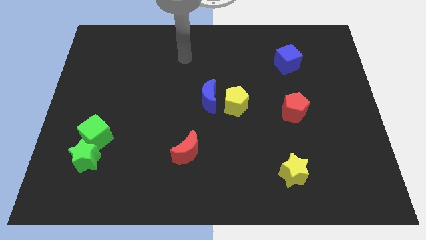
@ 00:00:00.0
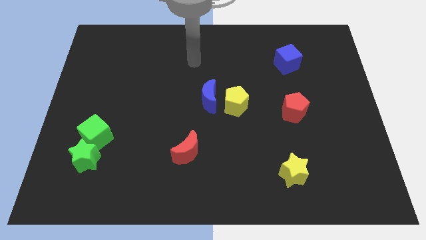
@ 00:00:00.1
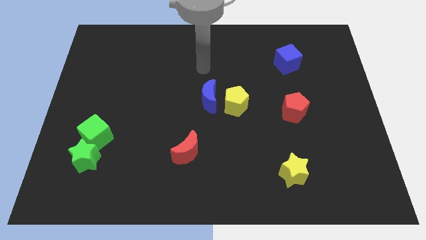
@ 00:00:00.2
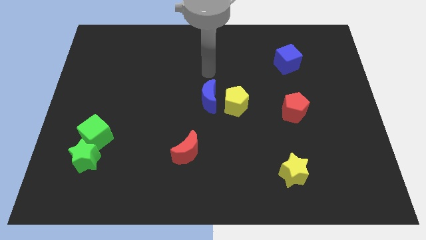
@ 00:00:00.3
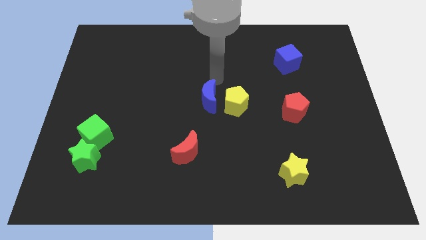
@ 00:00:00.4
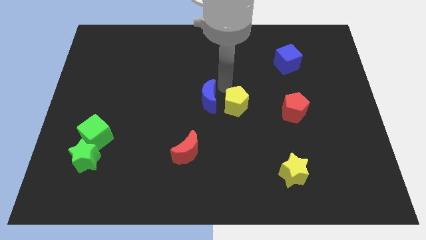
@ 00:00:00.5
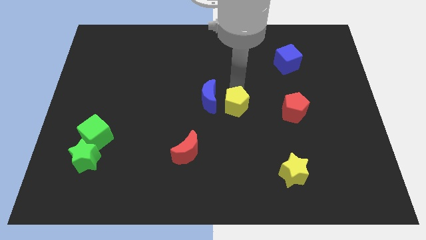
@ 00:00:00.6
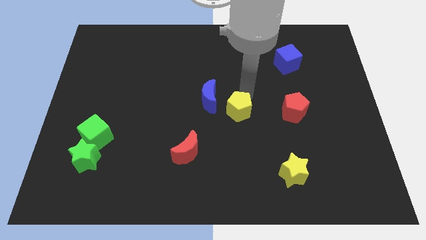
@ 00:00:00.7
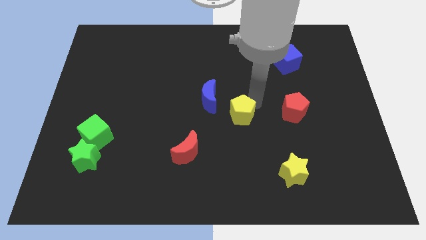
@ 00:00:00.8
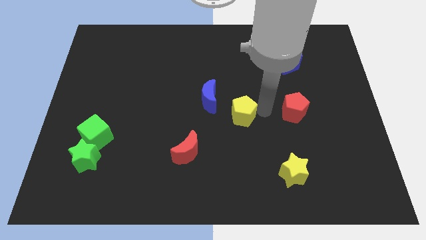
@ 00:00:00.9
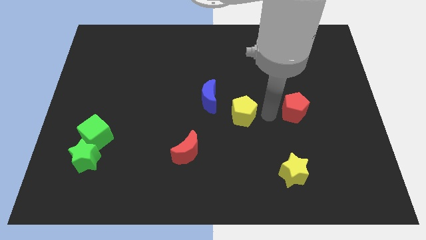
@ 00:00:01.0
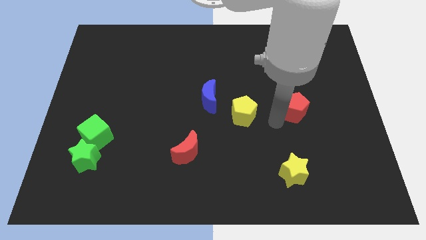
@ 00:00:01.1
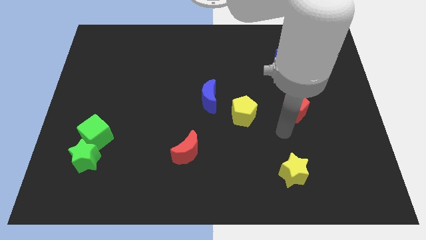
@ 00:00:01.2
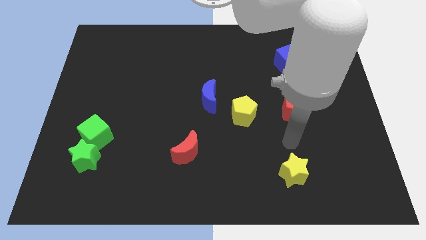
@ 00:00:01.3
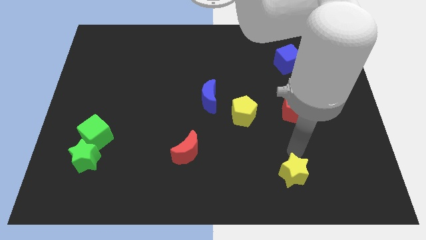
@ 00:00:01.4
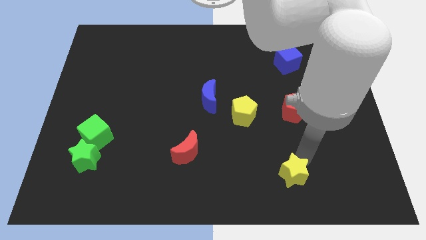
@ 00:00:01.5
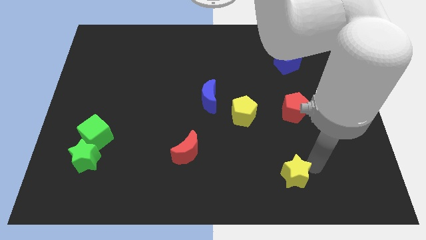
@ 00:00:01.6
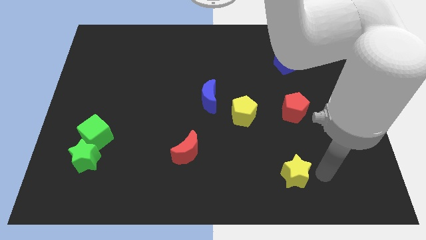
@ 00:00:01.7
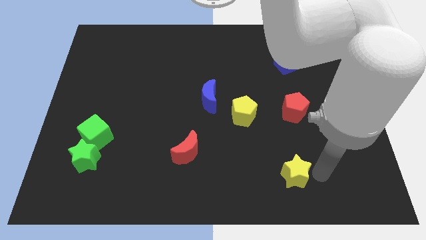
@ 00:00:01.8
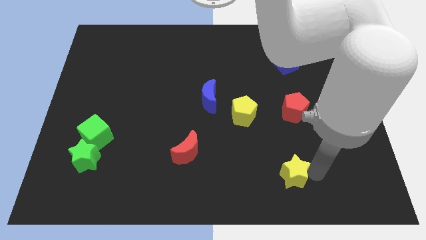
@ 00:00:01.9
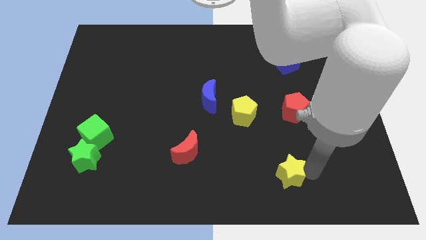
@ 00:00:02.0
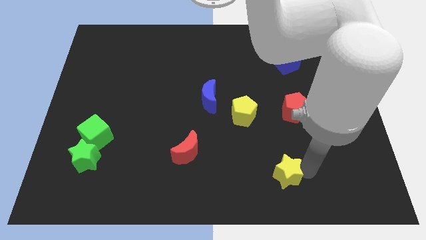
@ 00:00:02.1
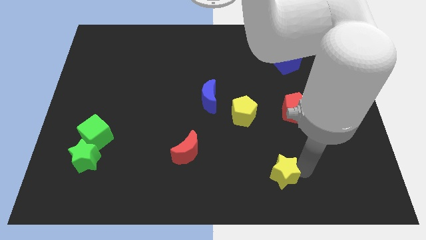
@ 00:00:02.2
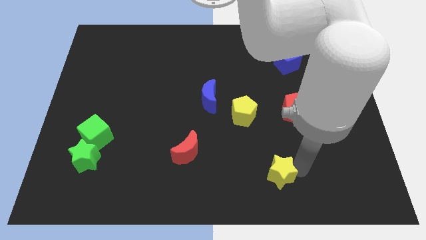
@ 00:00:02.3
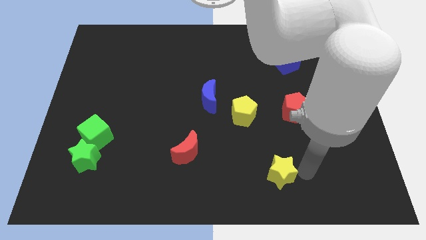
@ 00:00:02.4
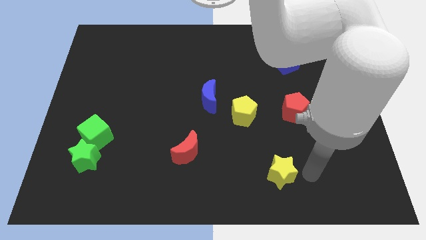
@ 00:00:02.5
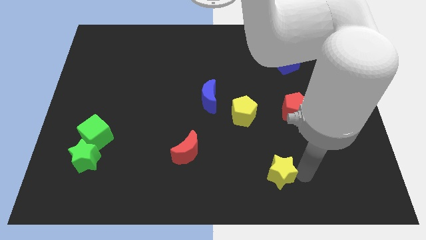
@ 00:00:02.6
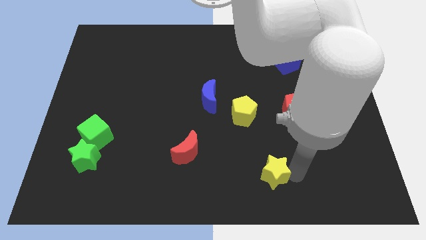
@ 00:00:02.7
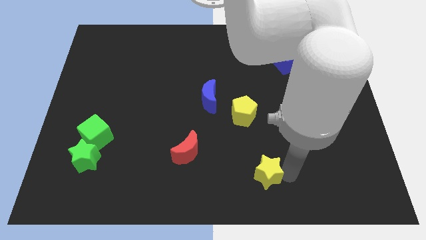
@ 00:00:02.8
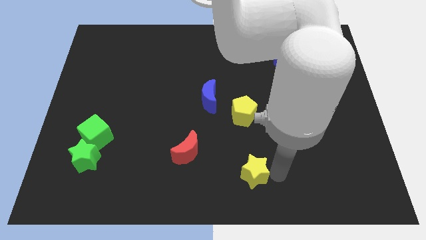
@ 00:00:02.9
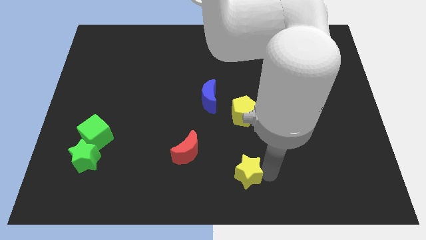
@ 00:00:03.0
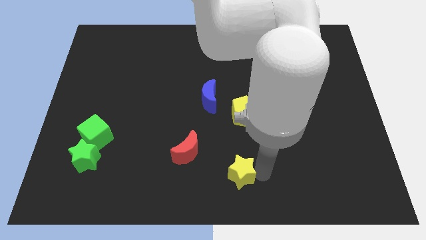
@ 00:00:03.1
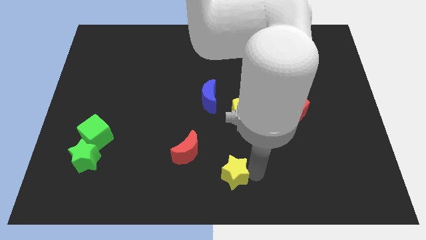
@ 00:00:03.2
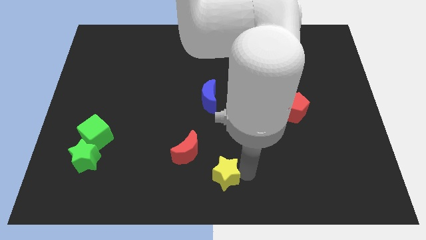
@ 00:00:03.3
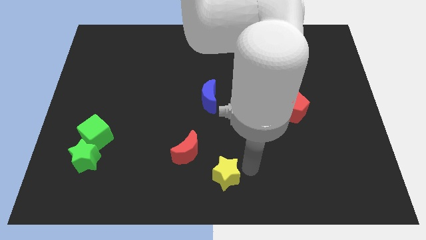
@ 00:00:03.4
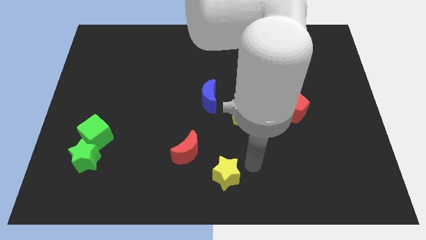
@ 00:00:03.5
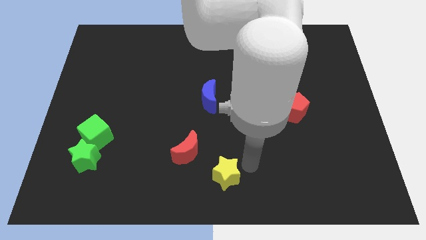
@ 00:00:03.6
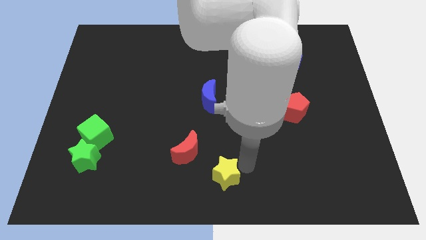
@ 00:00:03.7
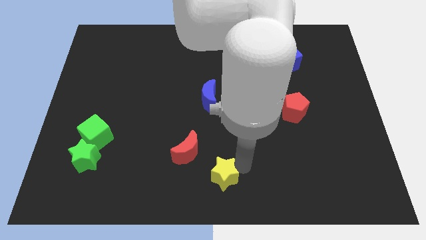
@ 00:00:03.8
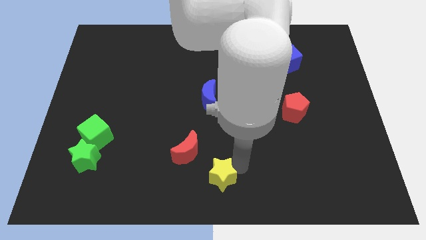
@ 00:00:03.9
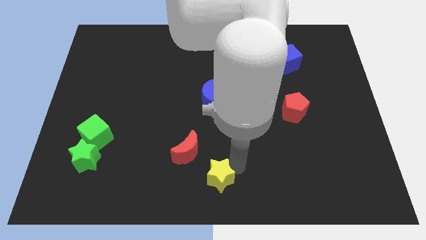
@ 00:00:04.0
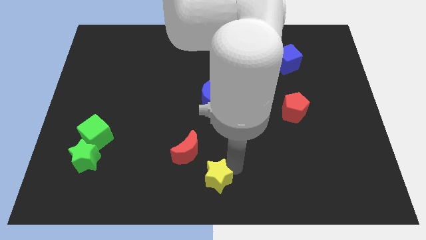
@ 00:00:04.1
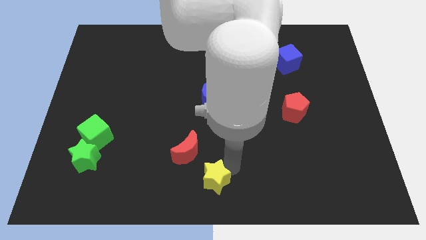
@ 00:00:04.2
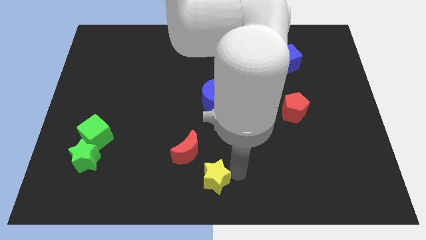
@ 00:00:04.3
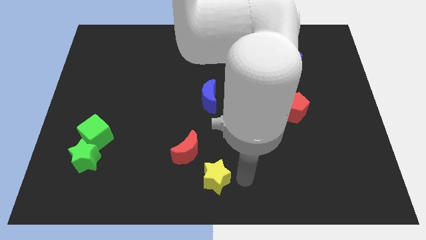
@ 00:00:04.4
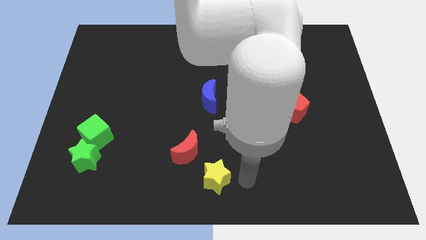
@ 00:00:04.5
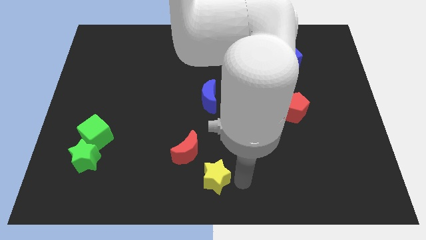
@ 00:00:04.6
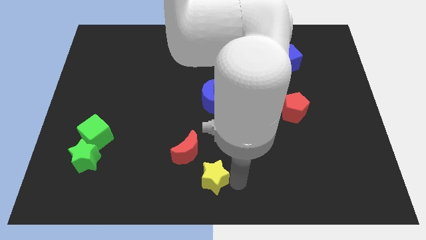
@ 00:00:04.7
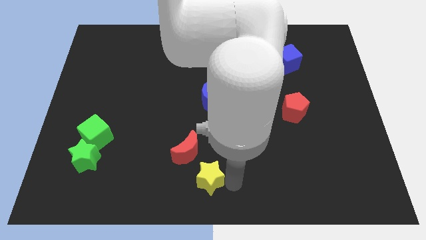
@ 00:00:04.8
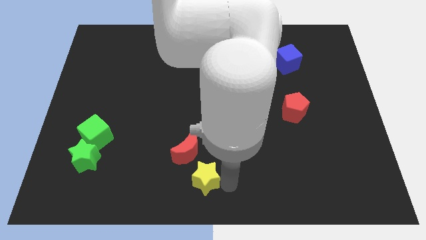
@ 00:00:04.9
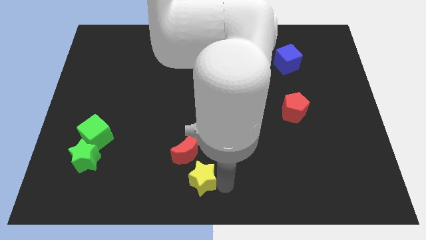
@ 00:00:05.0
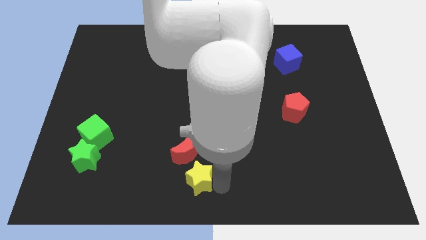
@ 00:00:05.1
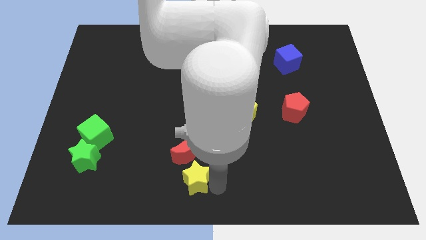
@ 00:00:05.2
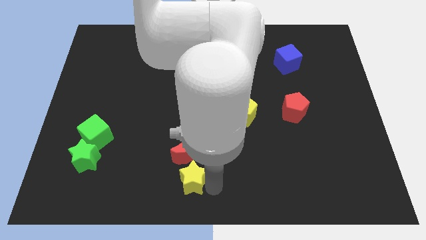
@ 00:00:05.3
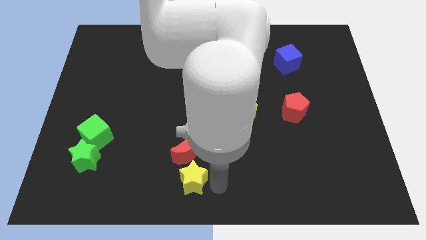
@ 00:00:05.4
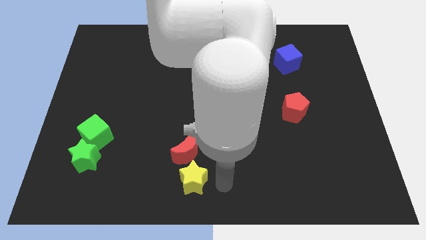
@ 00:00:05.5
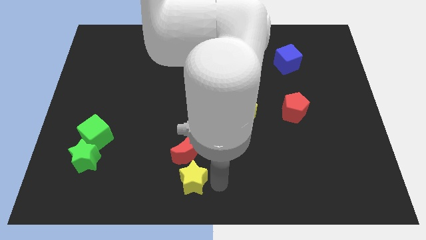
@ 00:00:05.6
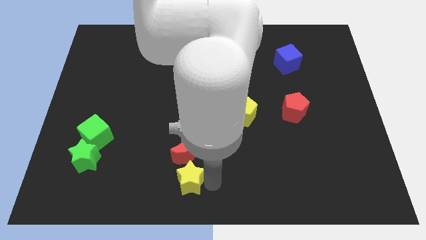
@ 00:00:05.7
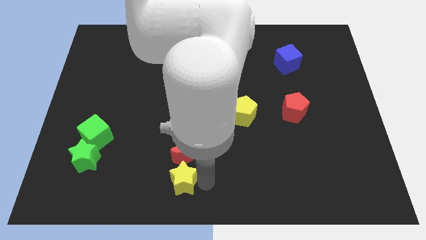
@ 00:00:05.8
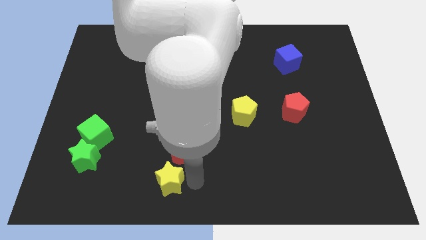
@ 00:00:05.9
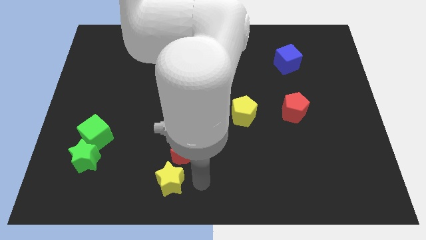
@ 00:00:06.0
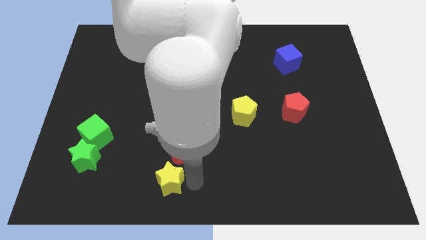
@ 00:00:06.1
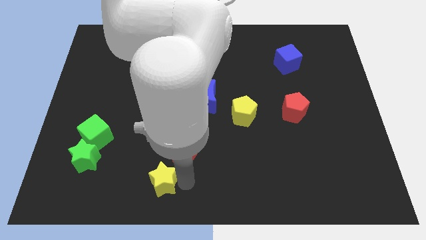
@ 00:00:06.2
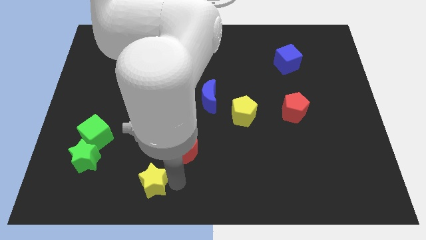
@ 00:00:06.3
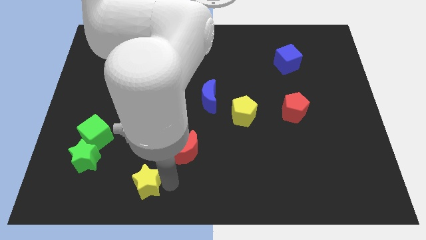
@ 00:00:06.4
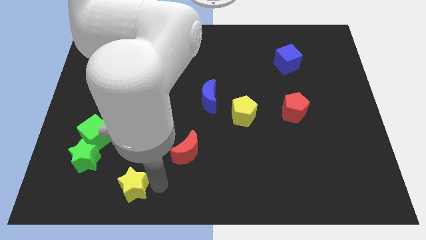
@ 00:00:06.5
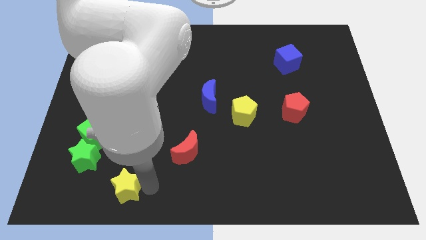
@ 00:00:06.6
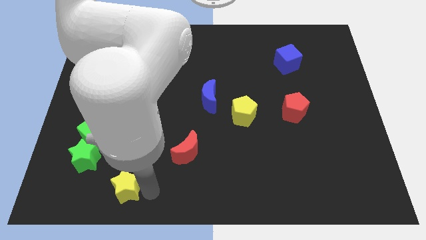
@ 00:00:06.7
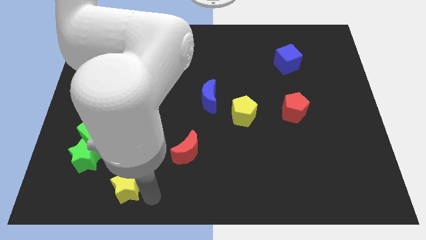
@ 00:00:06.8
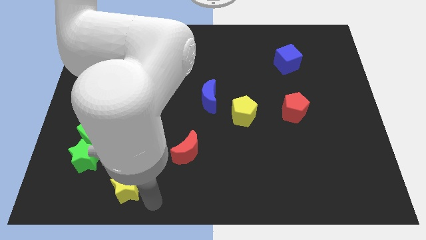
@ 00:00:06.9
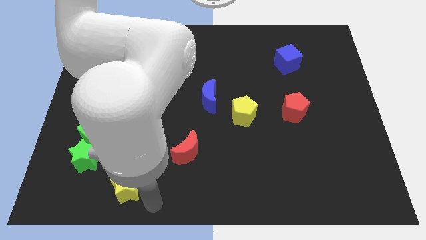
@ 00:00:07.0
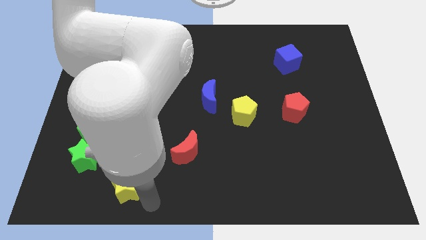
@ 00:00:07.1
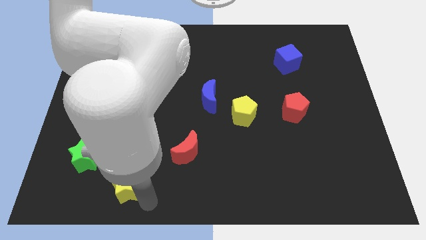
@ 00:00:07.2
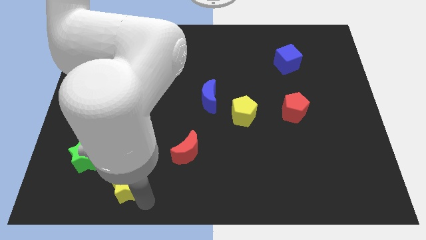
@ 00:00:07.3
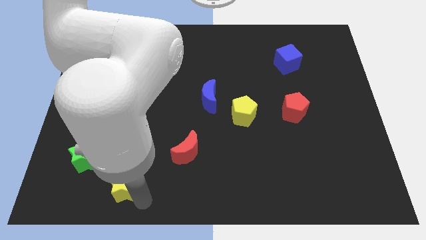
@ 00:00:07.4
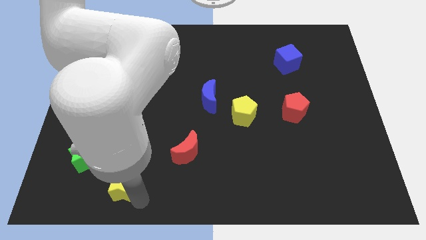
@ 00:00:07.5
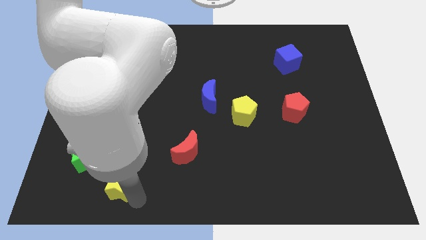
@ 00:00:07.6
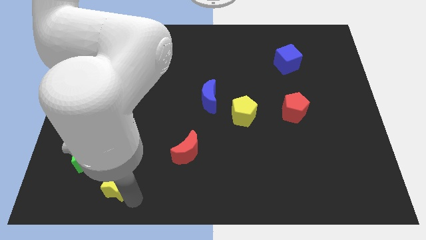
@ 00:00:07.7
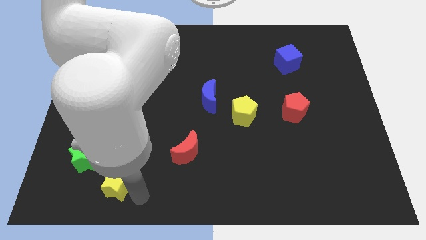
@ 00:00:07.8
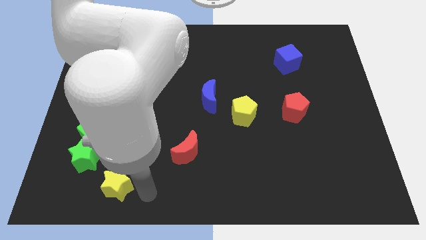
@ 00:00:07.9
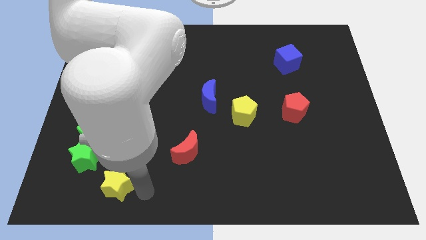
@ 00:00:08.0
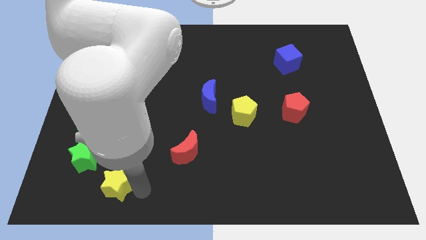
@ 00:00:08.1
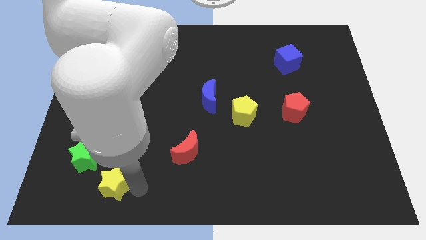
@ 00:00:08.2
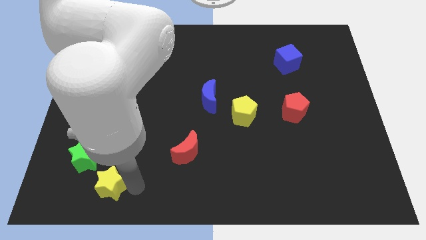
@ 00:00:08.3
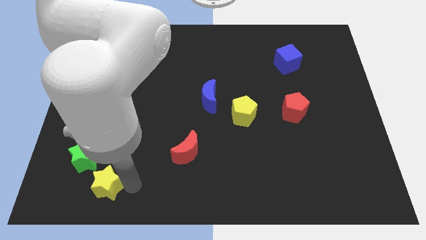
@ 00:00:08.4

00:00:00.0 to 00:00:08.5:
move the yellow star to the bottom side of the green cube
